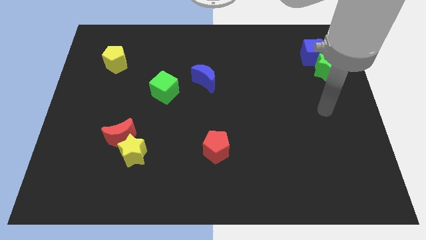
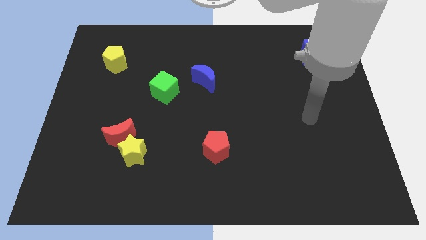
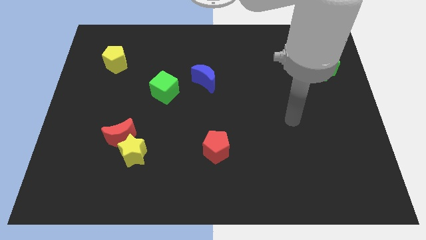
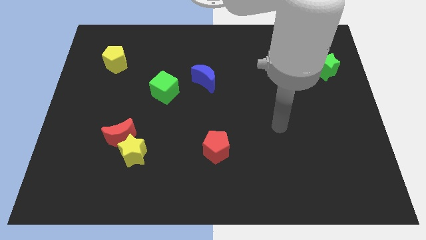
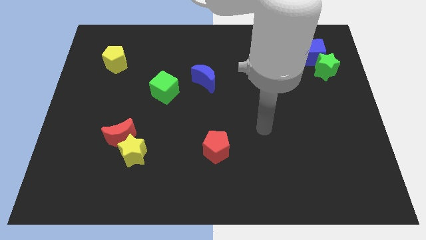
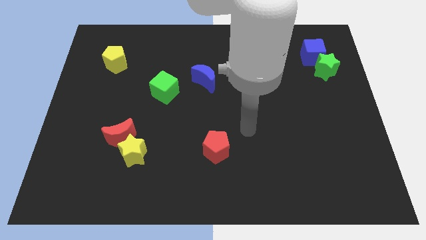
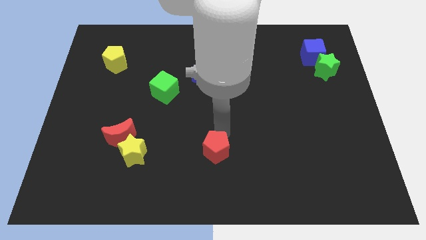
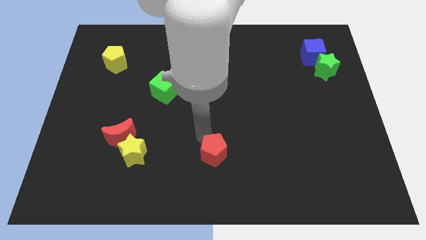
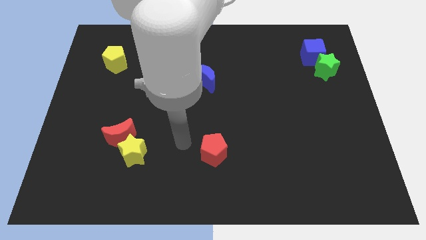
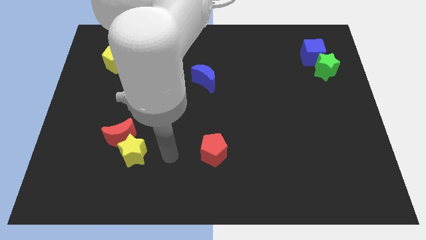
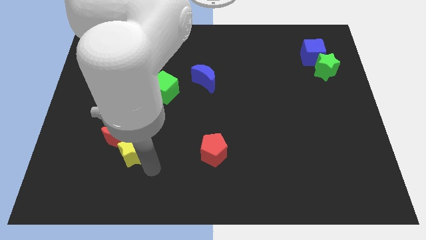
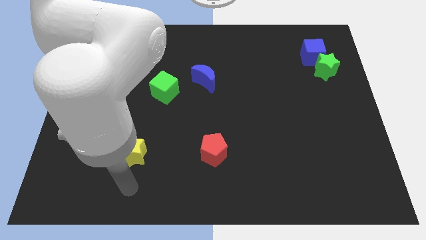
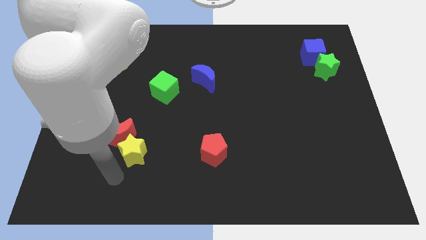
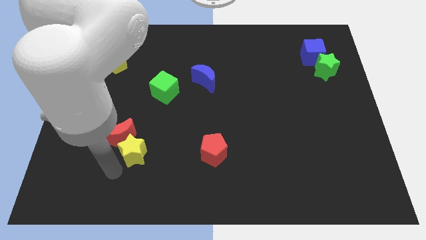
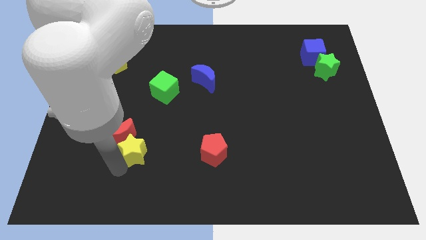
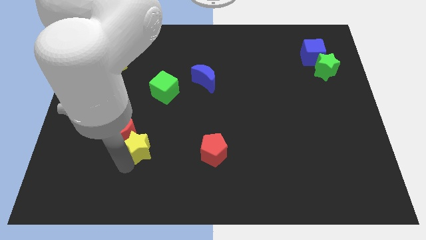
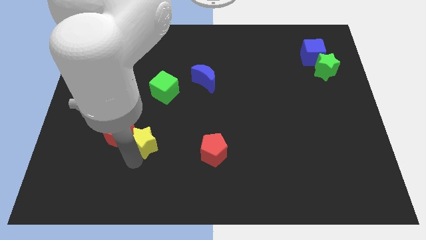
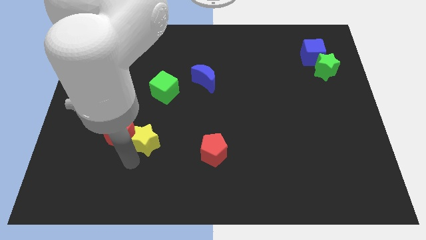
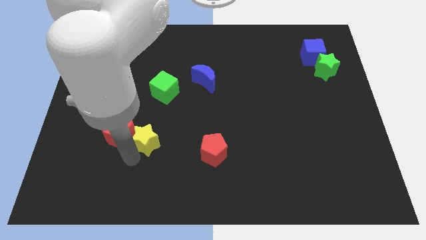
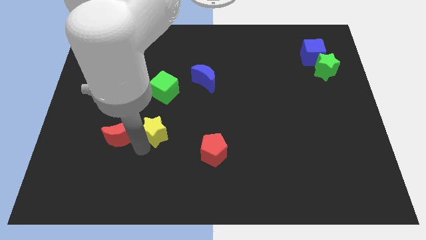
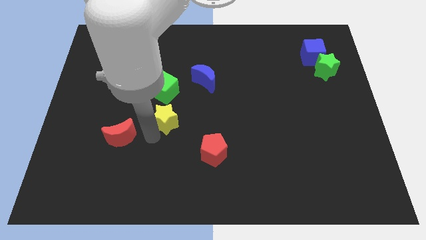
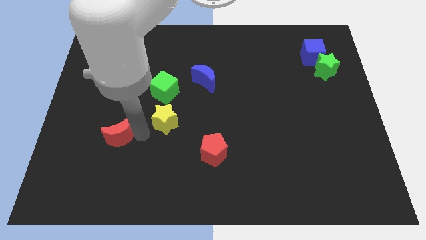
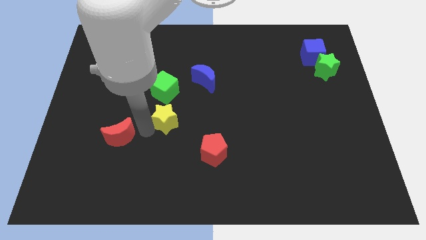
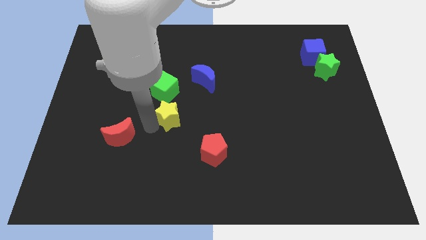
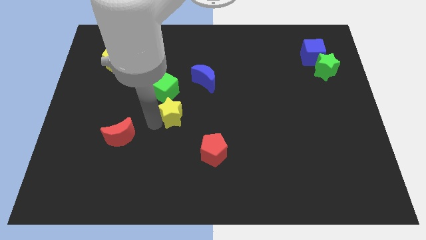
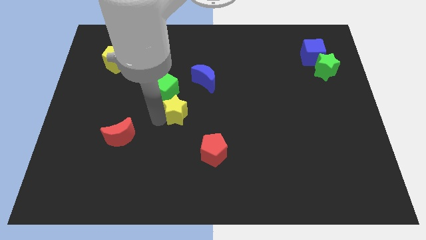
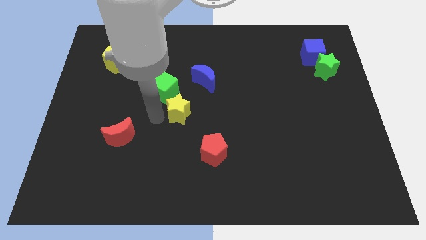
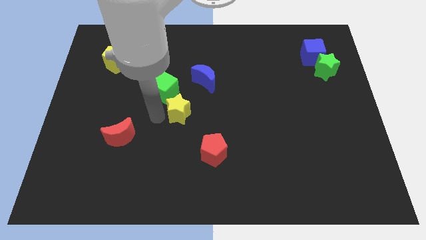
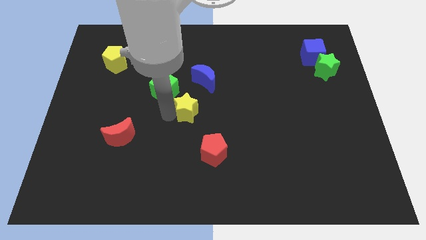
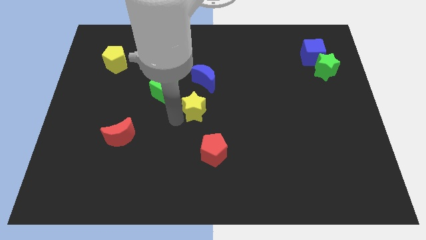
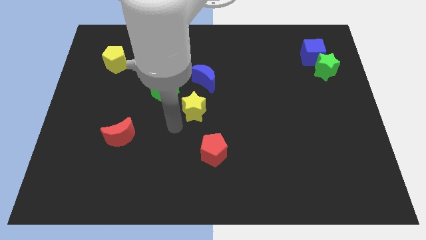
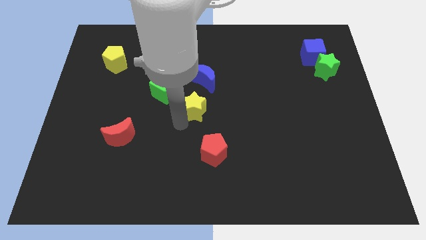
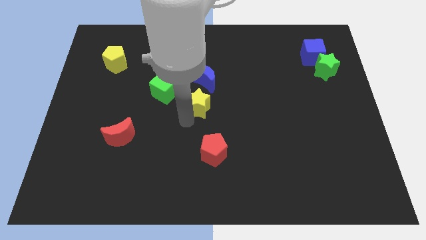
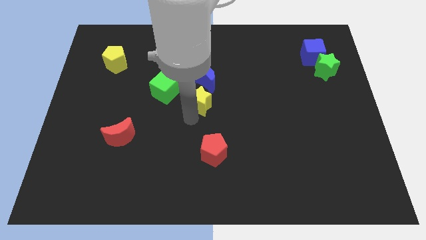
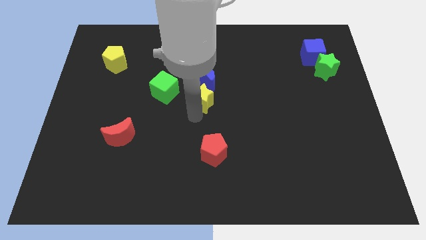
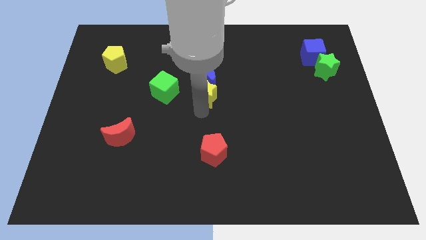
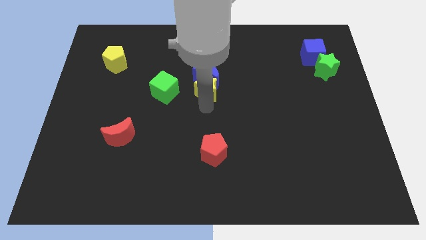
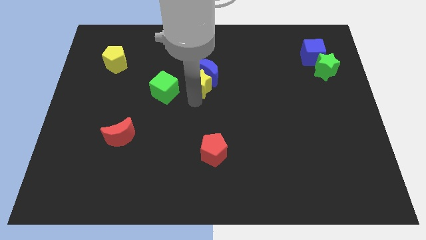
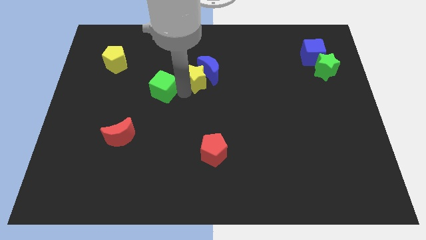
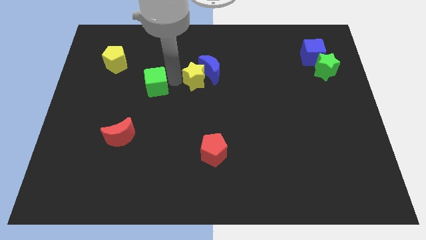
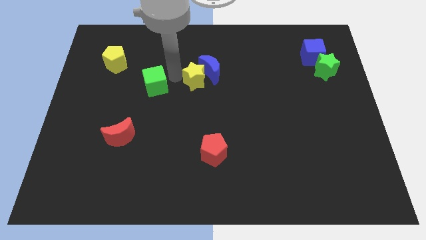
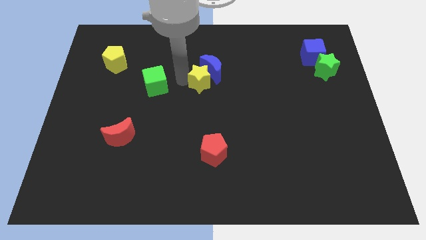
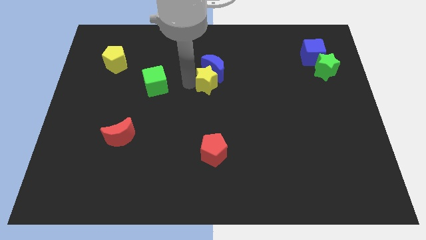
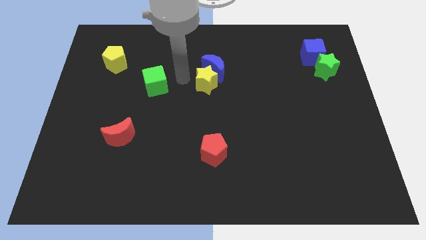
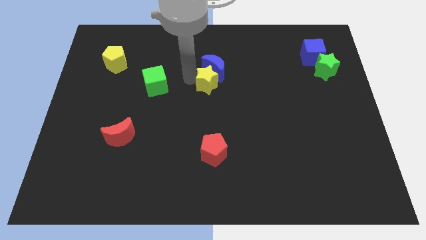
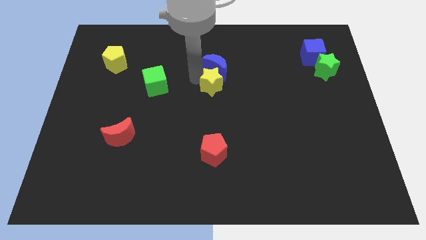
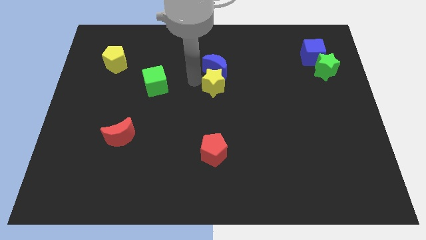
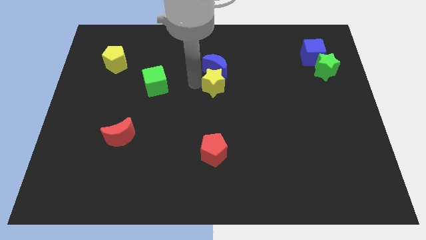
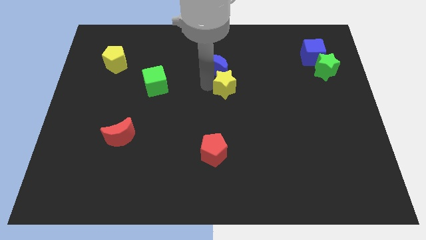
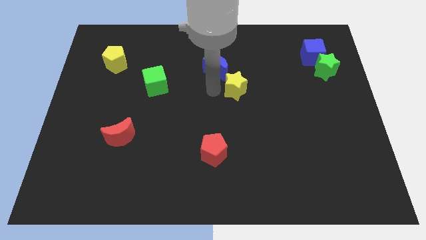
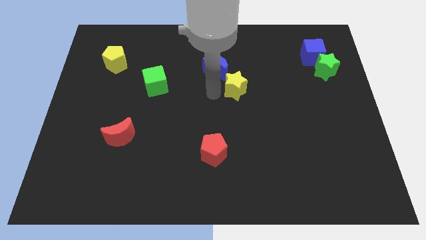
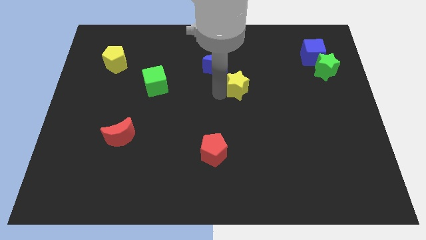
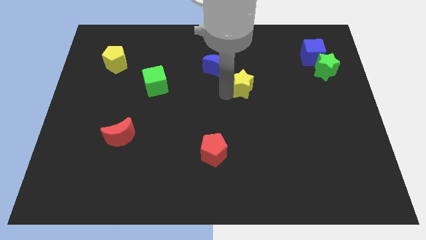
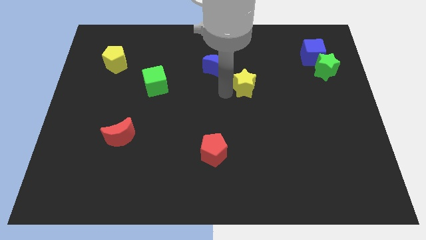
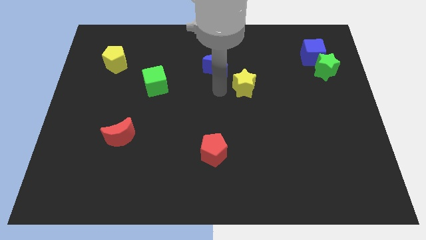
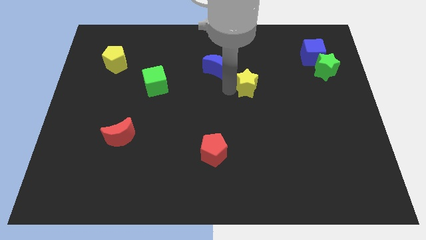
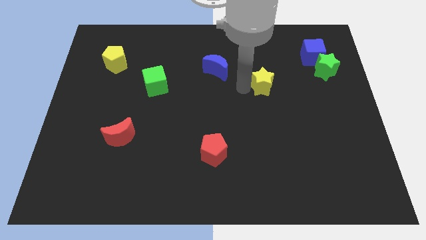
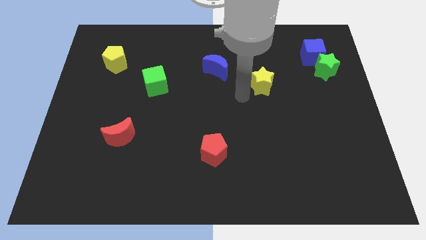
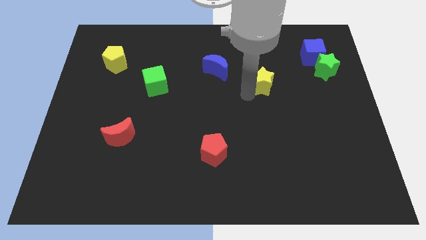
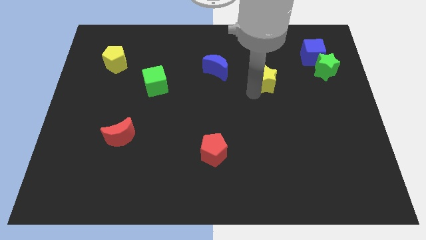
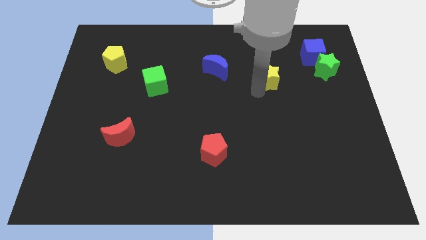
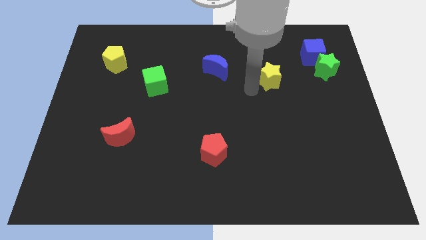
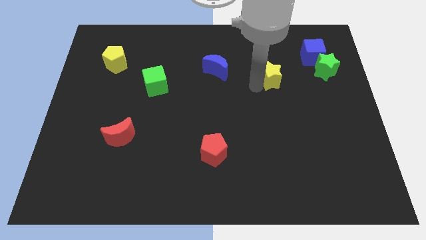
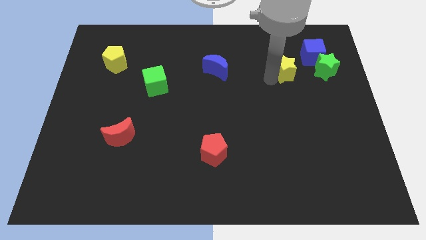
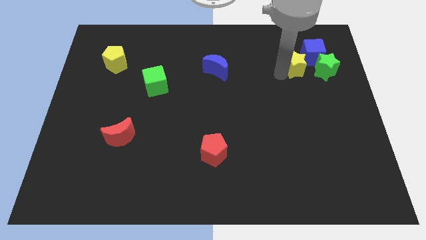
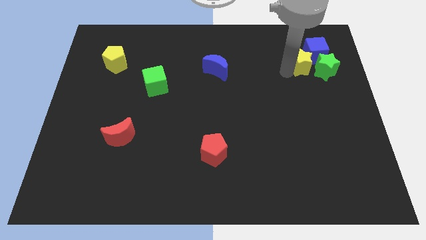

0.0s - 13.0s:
put the yellow star close to the blue cube

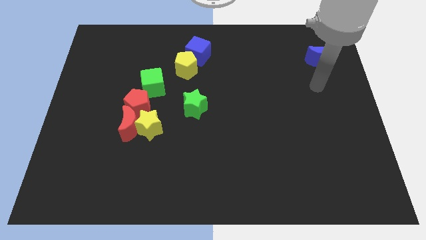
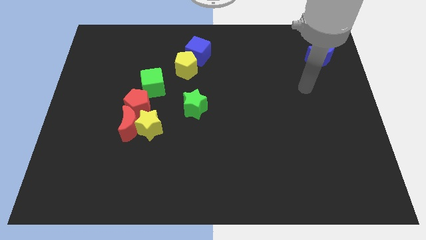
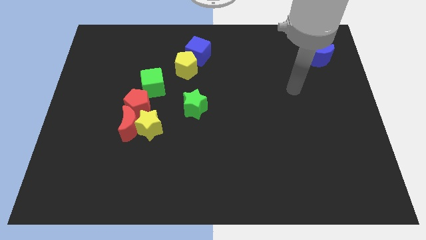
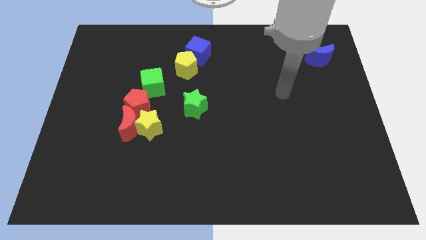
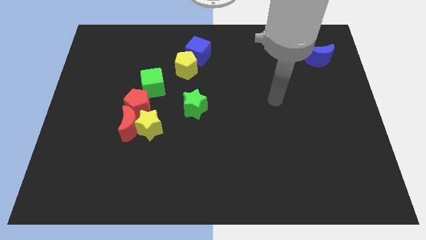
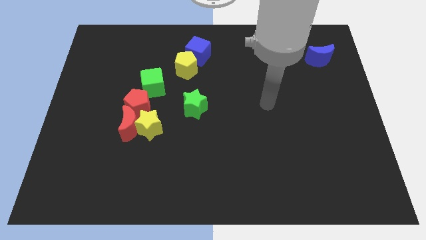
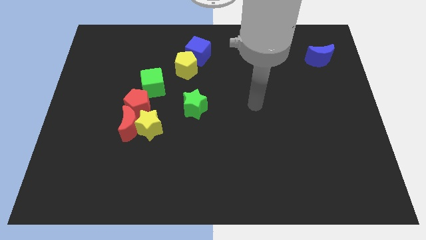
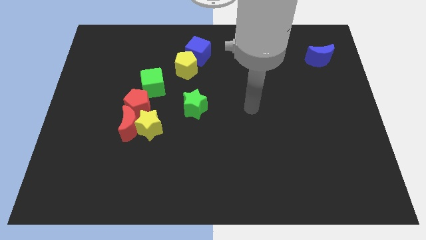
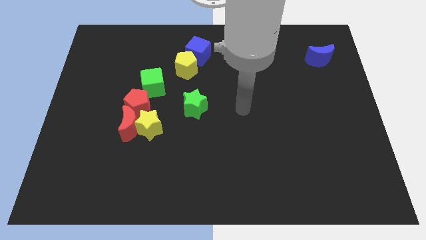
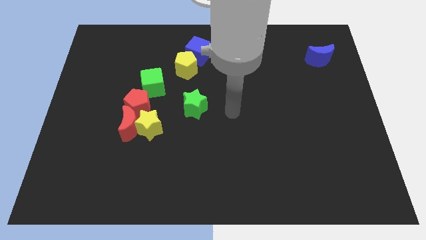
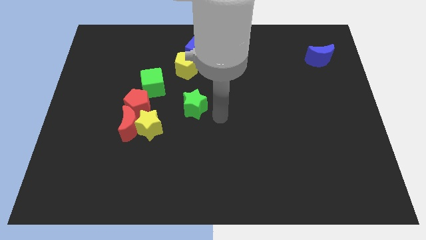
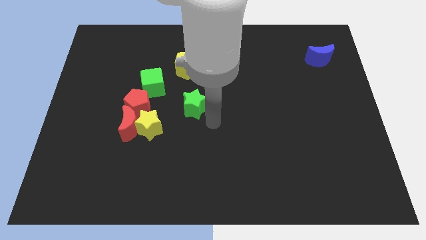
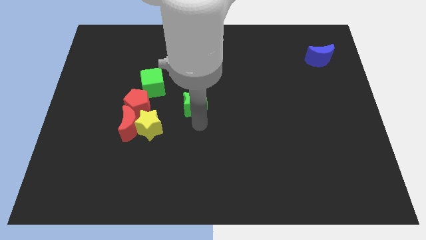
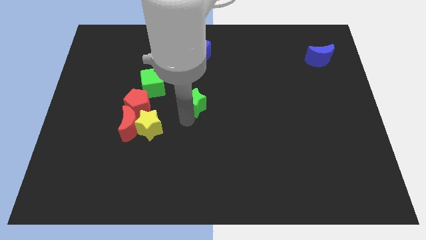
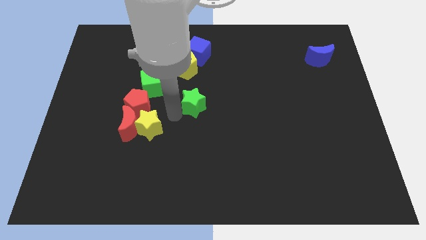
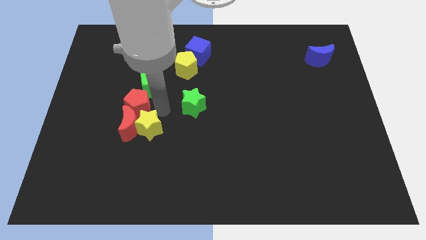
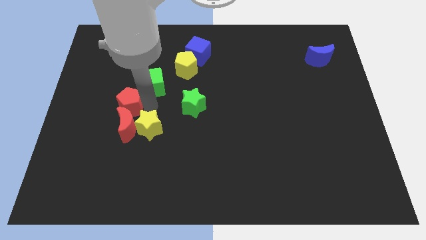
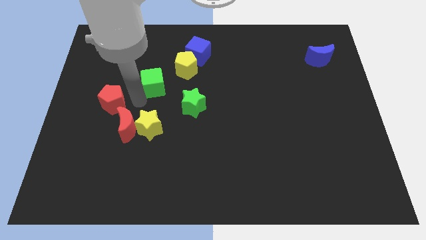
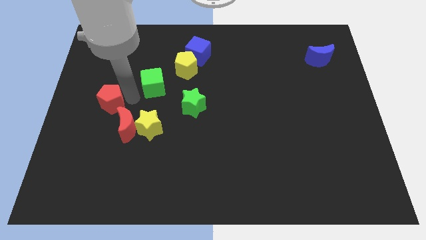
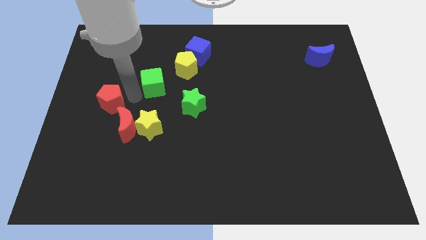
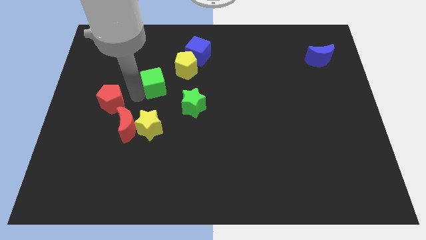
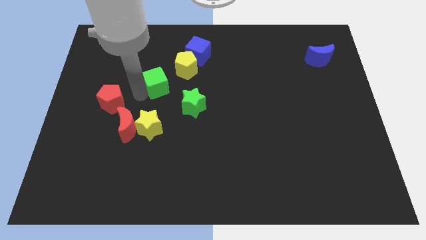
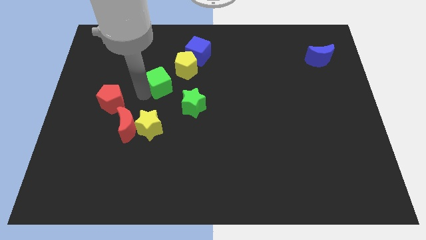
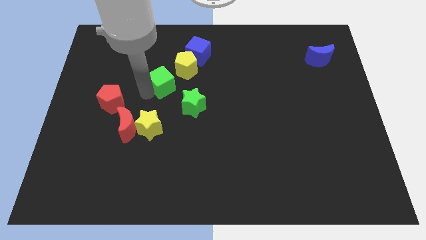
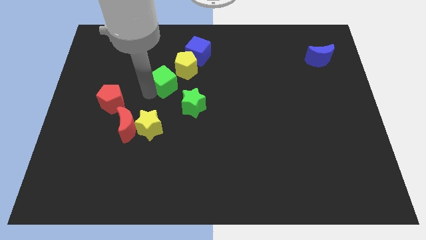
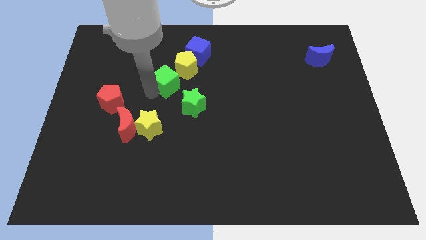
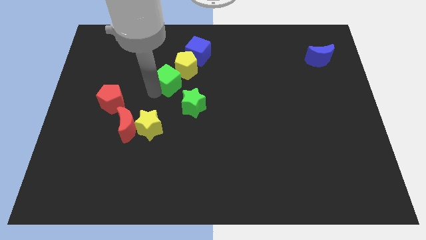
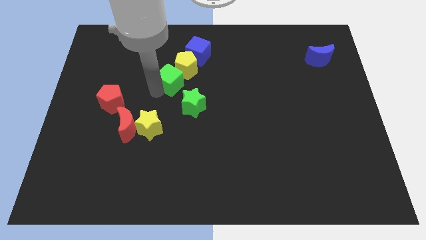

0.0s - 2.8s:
put the green cube next to the yellow pentagon
